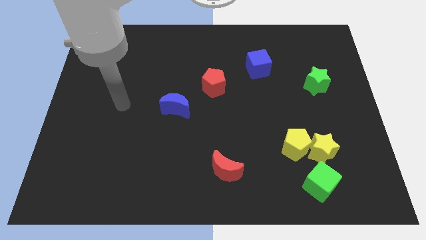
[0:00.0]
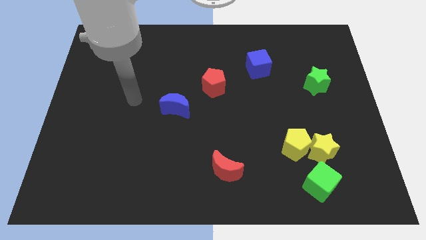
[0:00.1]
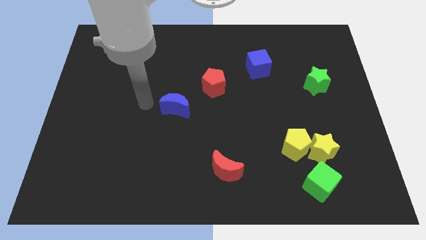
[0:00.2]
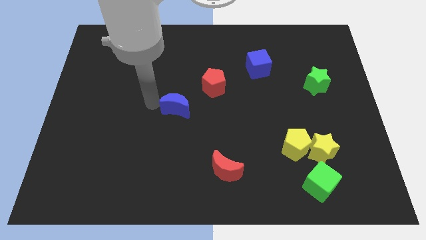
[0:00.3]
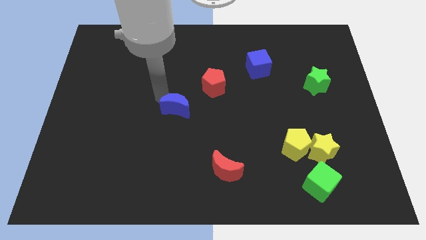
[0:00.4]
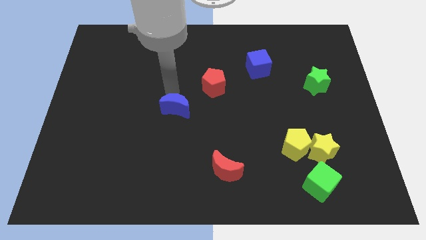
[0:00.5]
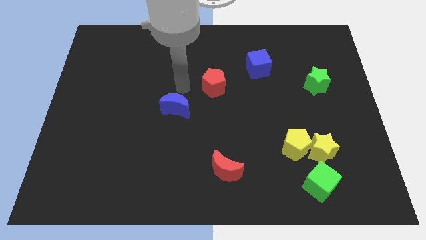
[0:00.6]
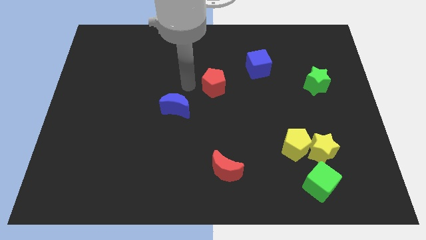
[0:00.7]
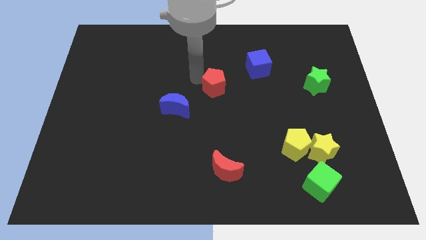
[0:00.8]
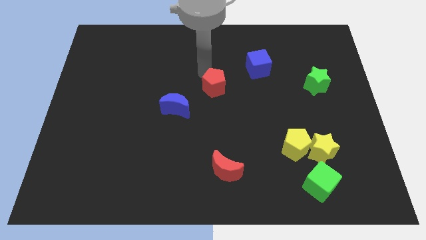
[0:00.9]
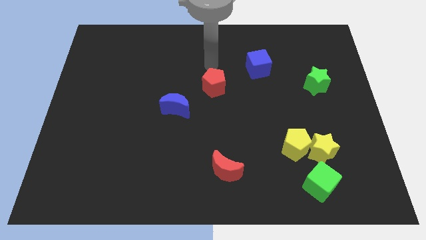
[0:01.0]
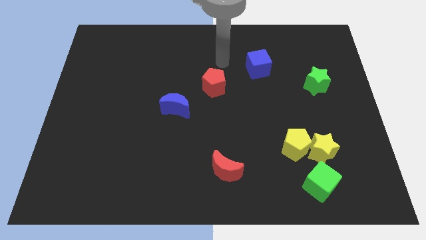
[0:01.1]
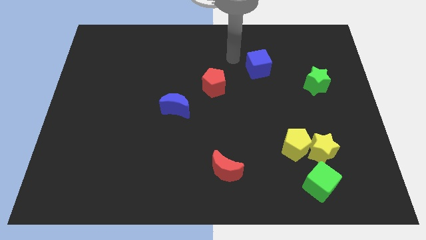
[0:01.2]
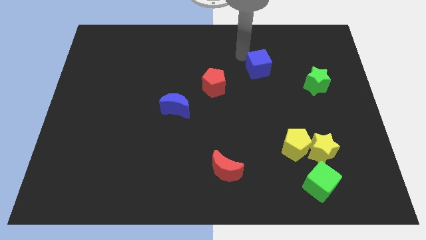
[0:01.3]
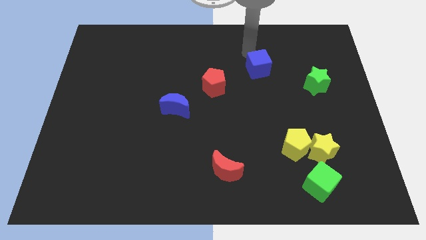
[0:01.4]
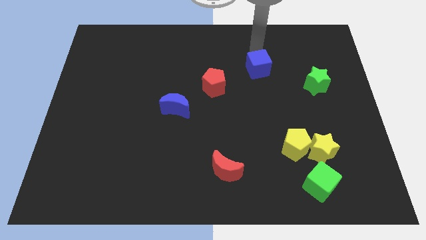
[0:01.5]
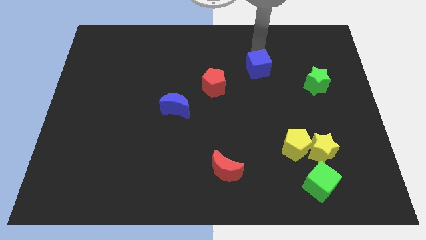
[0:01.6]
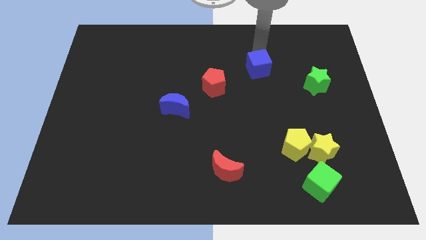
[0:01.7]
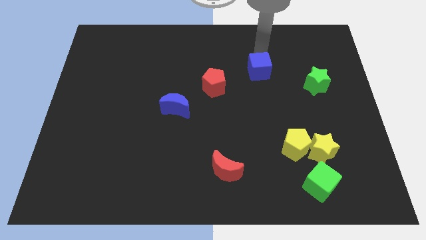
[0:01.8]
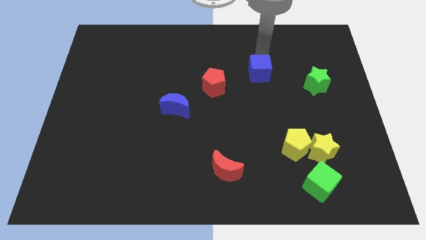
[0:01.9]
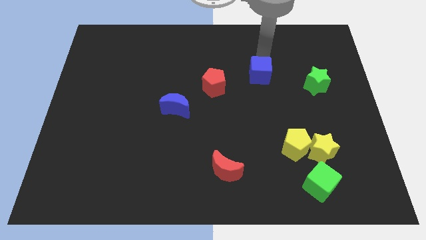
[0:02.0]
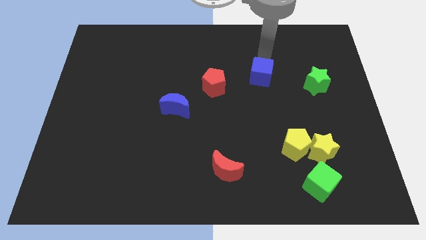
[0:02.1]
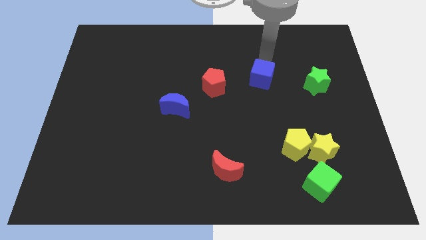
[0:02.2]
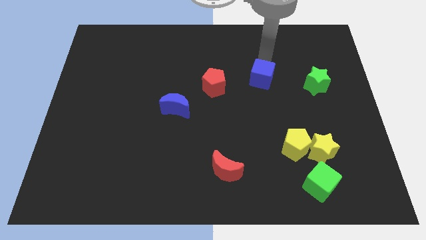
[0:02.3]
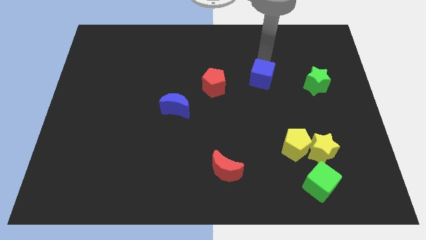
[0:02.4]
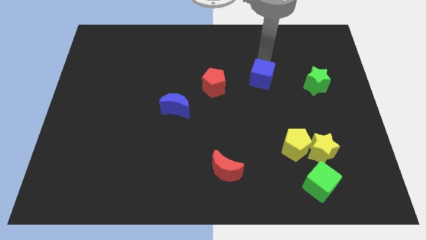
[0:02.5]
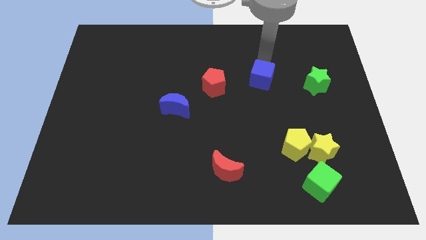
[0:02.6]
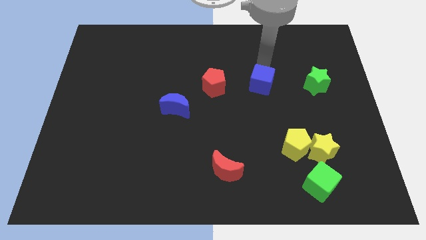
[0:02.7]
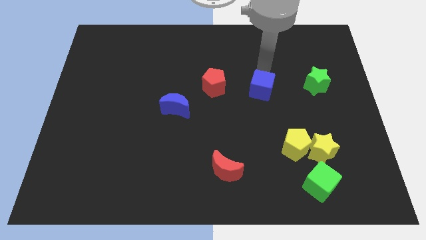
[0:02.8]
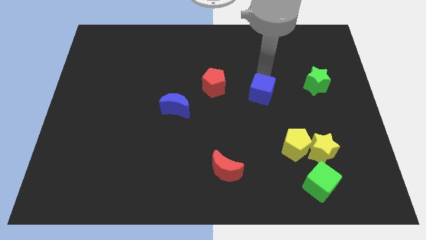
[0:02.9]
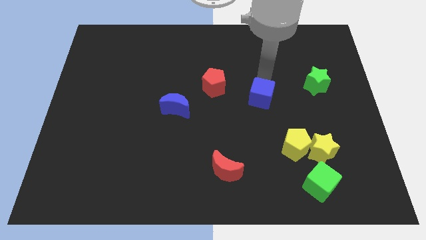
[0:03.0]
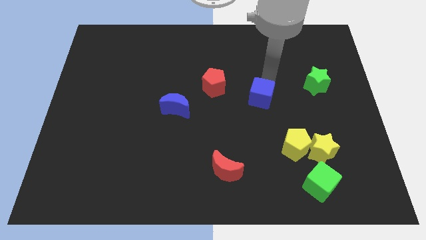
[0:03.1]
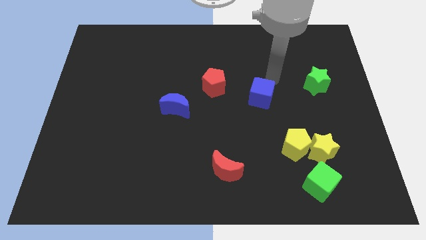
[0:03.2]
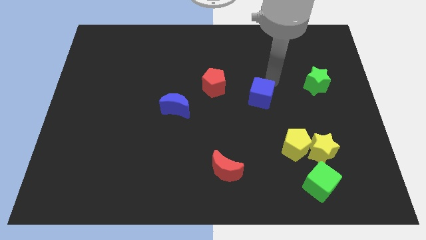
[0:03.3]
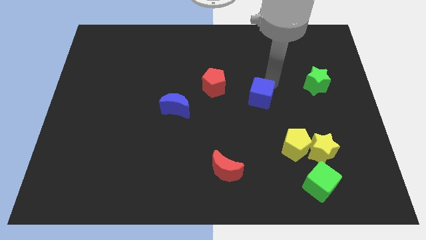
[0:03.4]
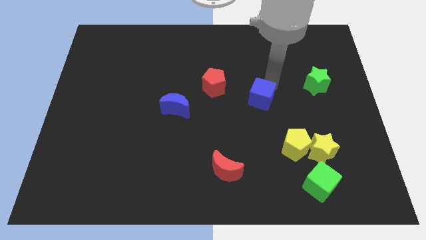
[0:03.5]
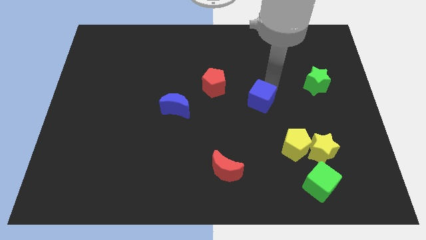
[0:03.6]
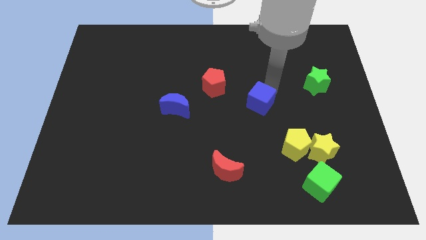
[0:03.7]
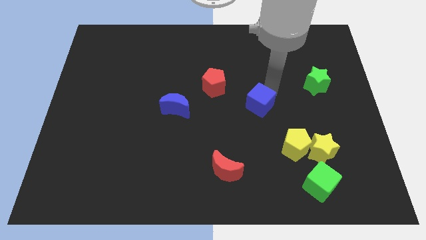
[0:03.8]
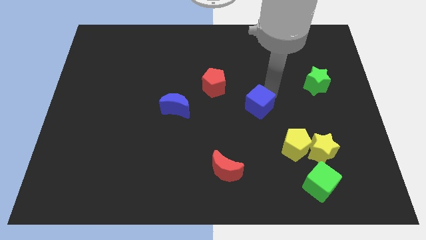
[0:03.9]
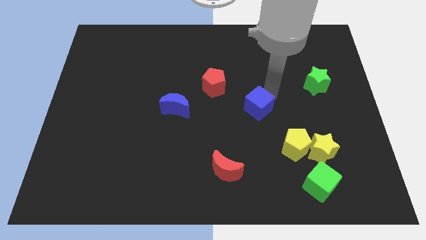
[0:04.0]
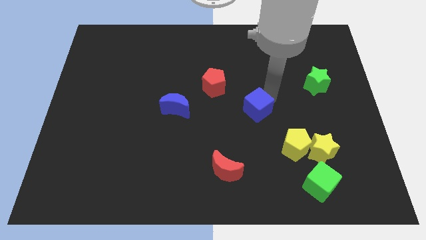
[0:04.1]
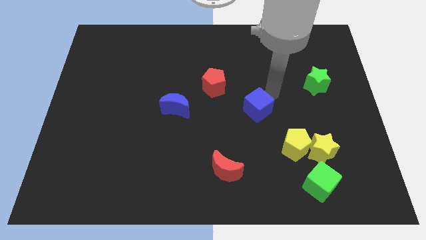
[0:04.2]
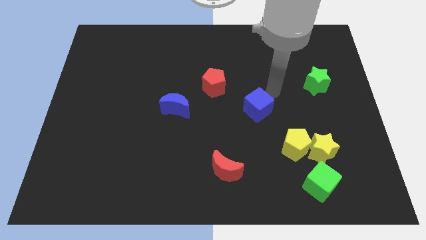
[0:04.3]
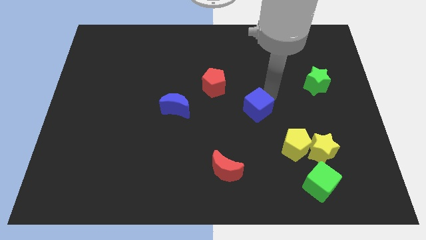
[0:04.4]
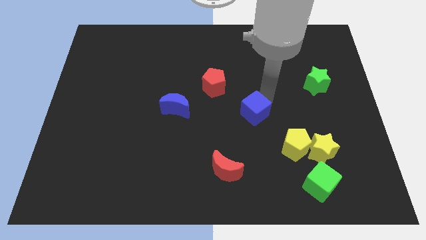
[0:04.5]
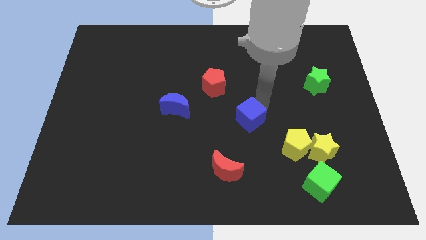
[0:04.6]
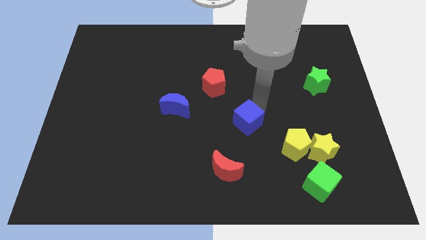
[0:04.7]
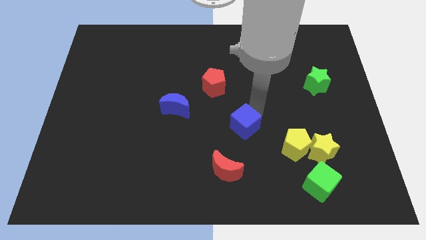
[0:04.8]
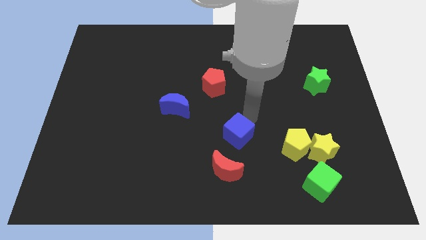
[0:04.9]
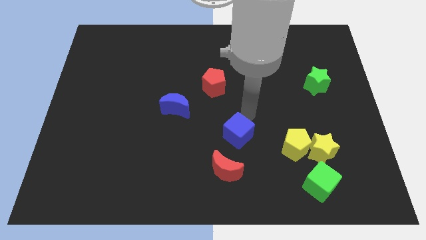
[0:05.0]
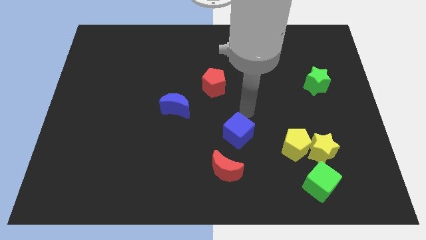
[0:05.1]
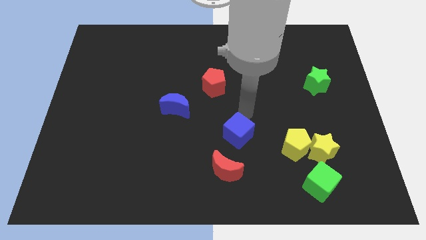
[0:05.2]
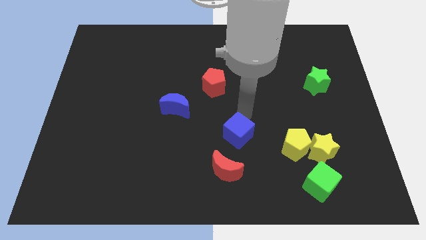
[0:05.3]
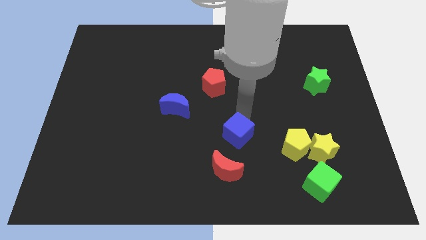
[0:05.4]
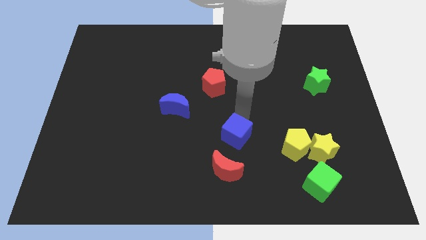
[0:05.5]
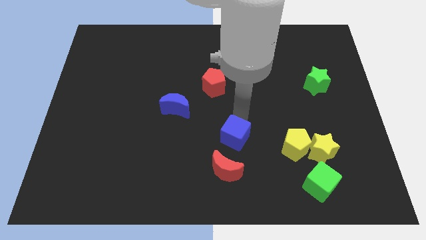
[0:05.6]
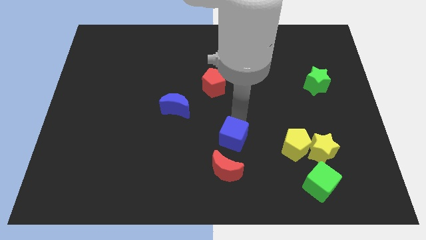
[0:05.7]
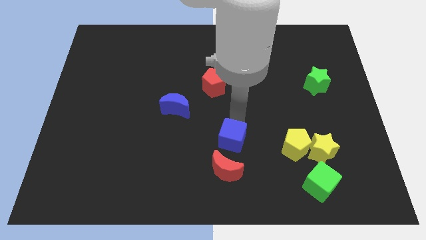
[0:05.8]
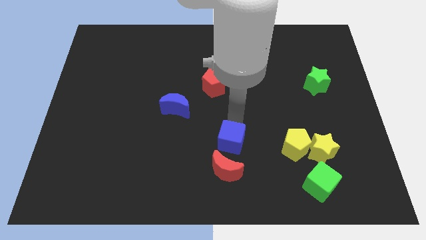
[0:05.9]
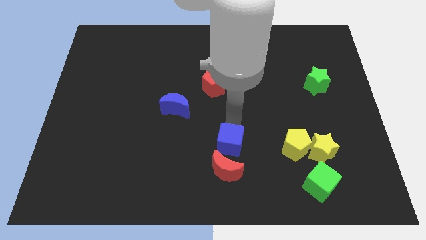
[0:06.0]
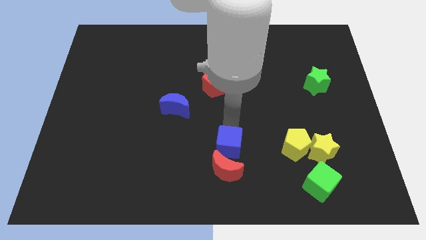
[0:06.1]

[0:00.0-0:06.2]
put the blue cube towards the red moon

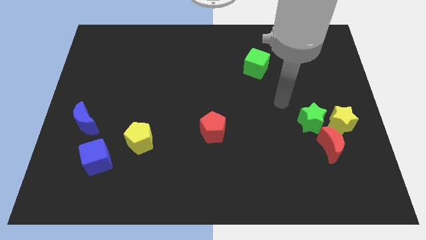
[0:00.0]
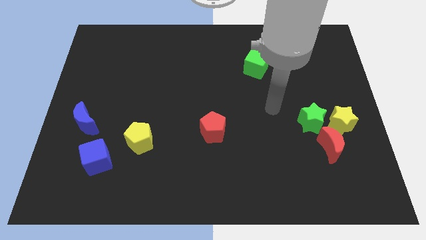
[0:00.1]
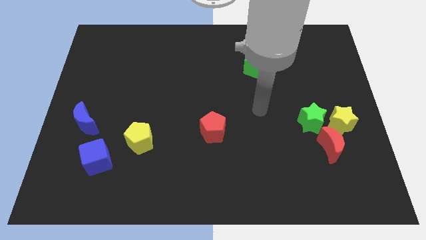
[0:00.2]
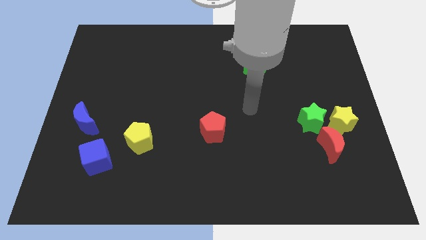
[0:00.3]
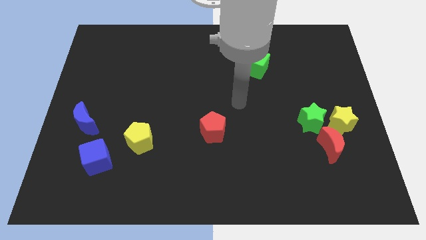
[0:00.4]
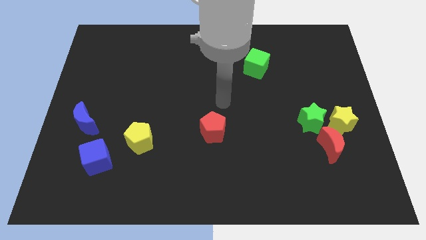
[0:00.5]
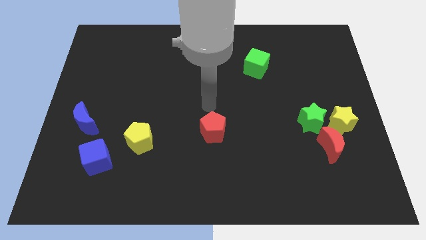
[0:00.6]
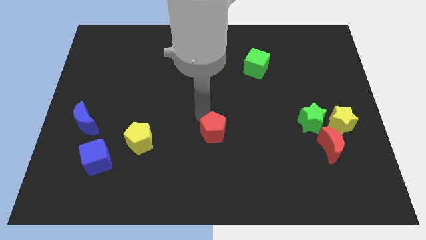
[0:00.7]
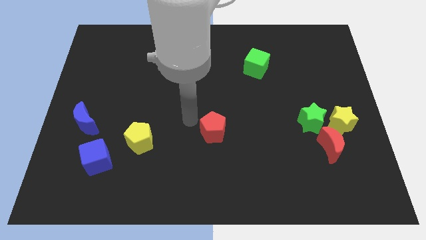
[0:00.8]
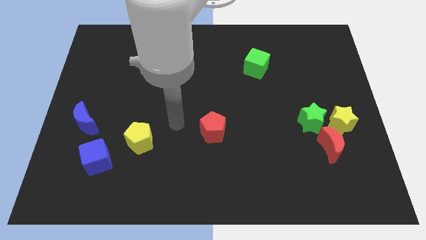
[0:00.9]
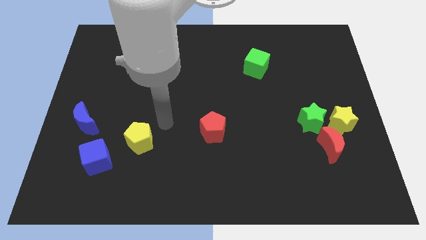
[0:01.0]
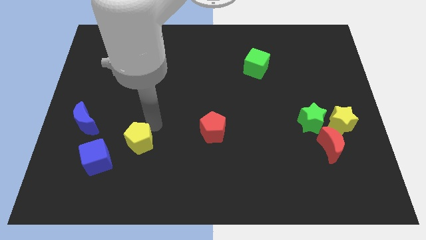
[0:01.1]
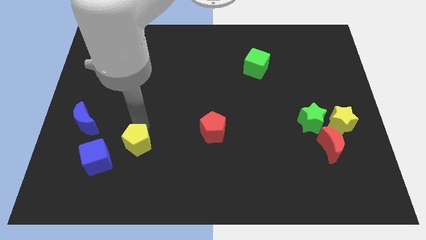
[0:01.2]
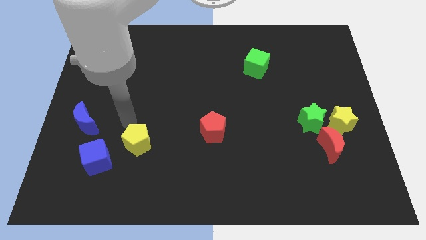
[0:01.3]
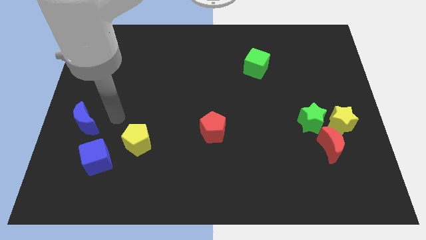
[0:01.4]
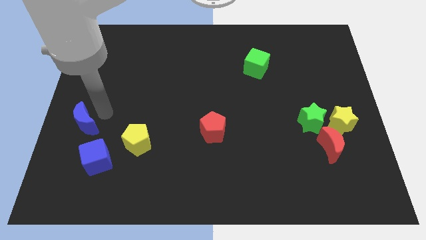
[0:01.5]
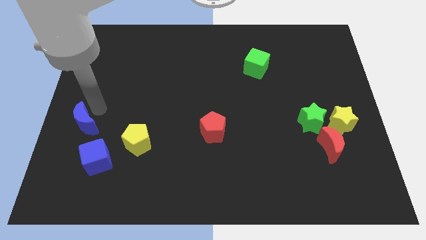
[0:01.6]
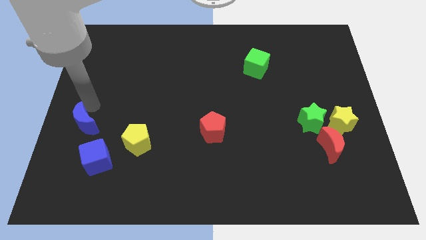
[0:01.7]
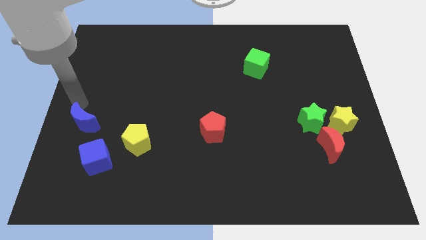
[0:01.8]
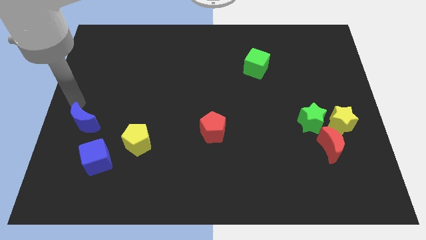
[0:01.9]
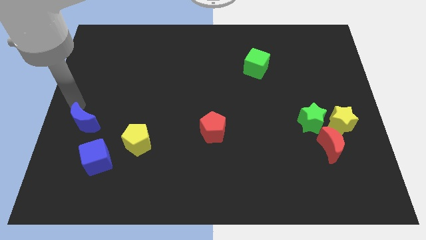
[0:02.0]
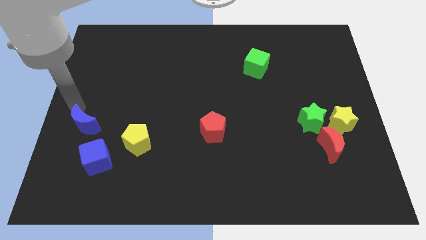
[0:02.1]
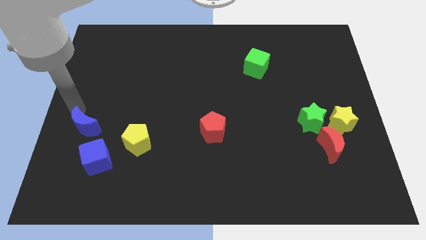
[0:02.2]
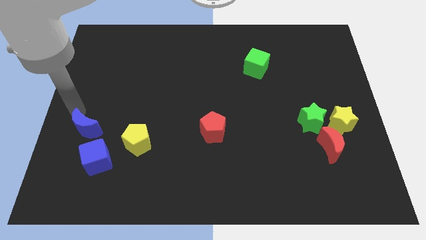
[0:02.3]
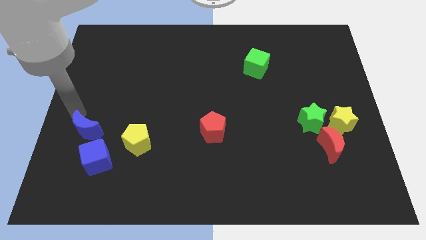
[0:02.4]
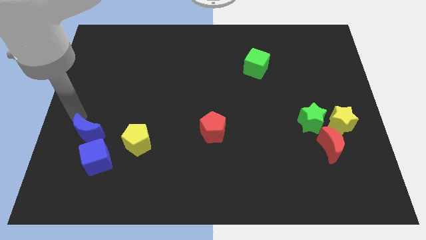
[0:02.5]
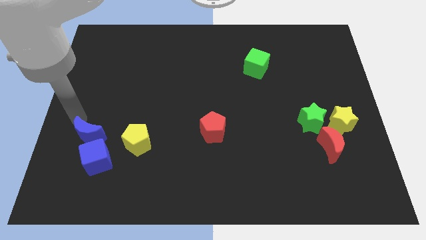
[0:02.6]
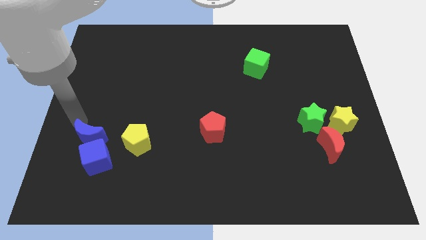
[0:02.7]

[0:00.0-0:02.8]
push the blue moon next to the blue cube
